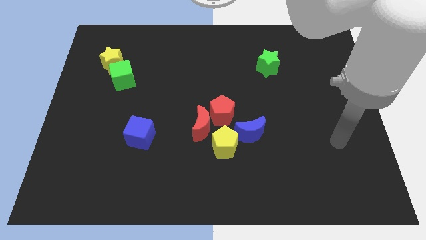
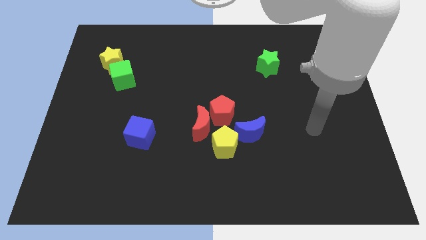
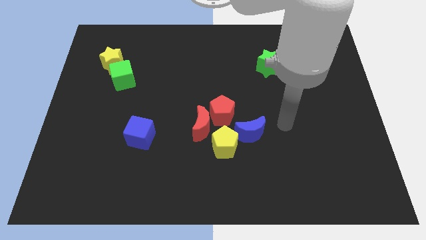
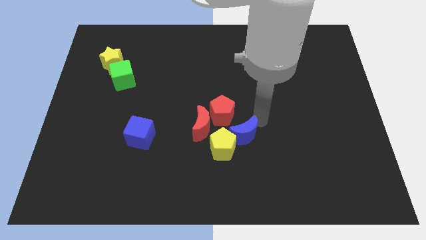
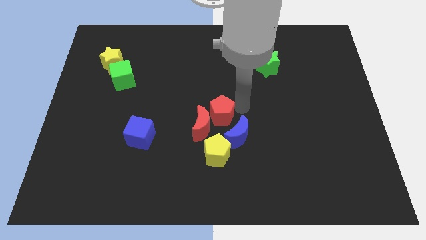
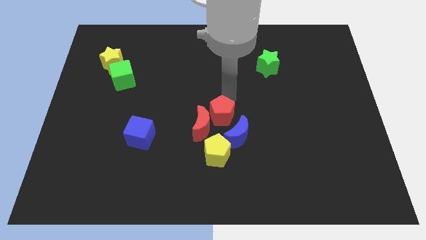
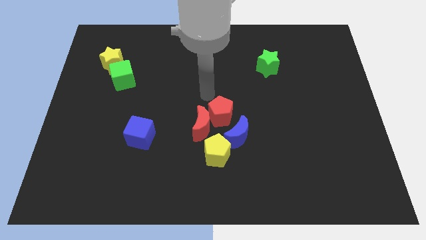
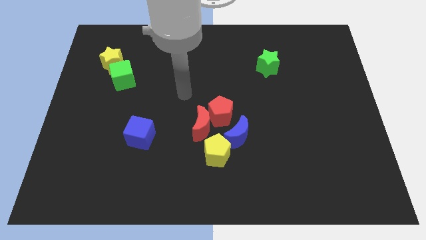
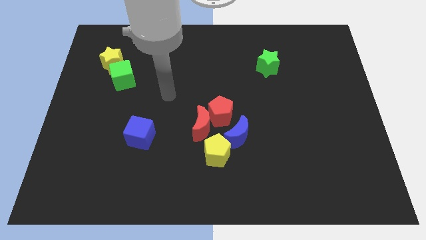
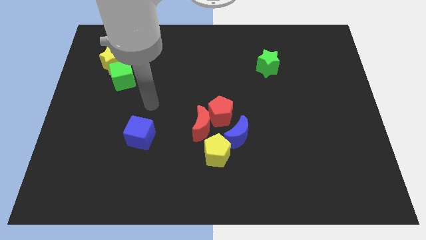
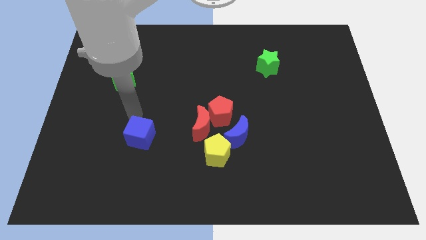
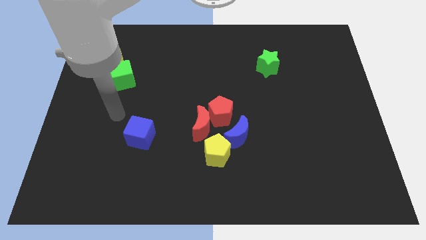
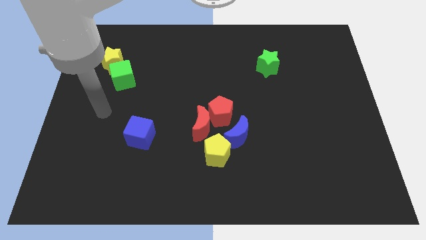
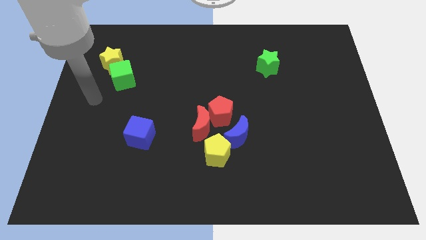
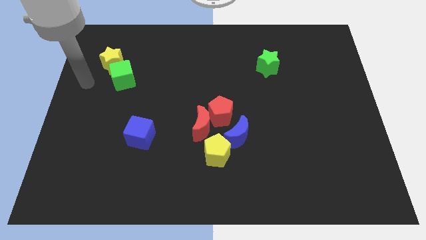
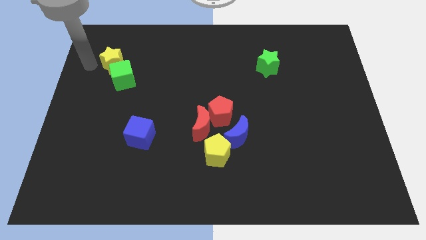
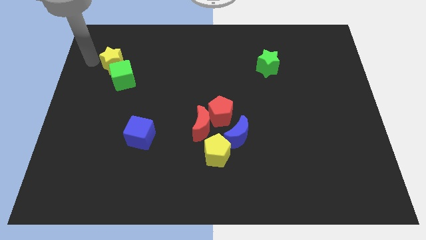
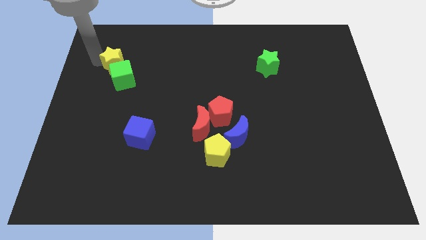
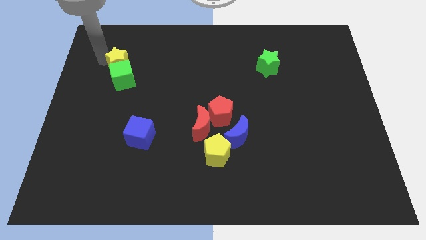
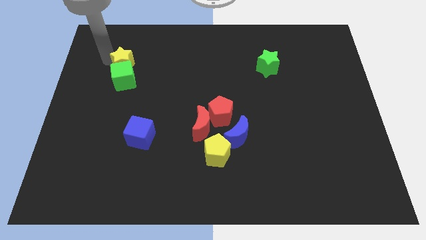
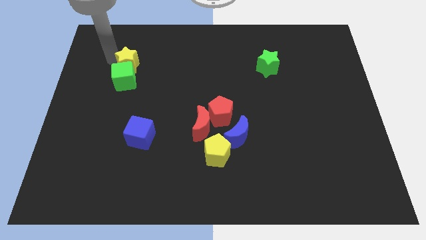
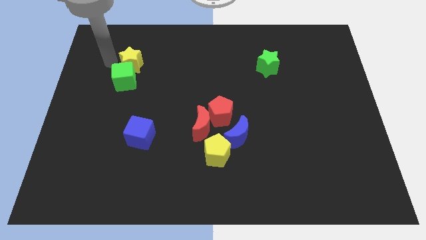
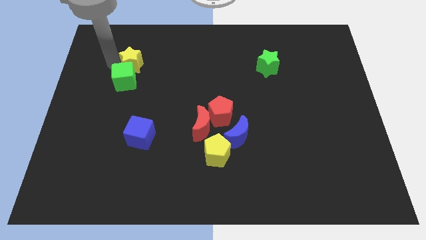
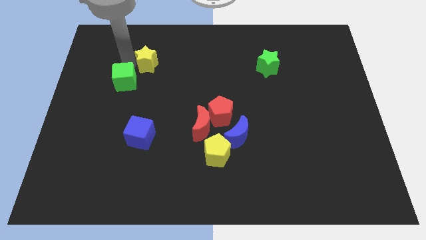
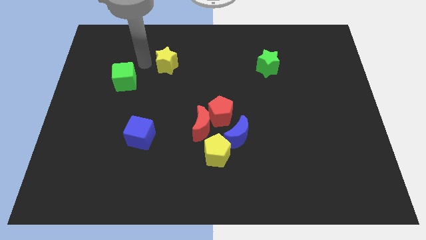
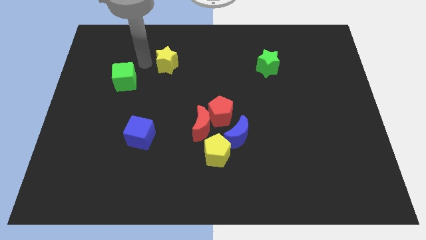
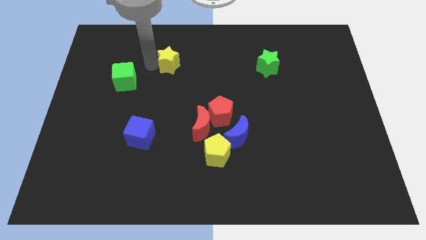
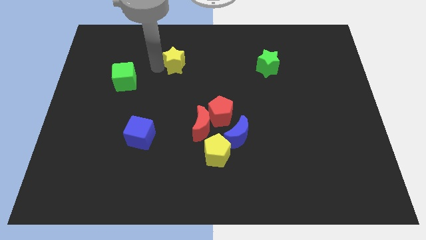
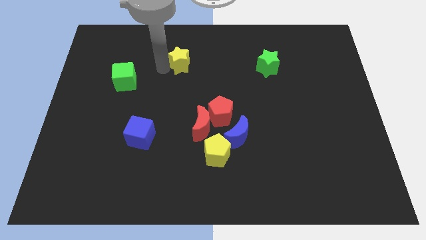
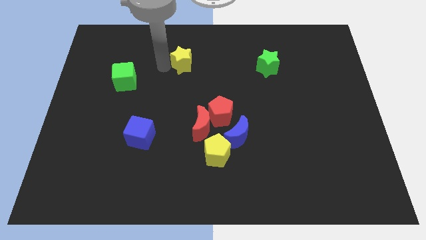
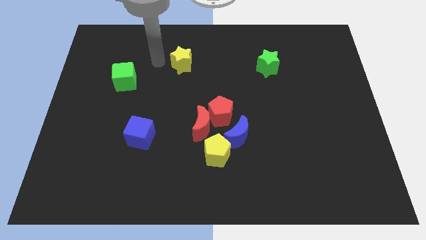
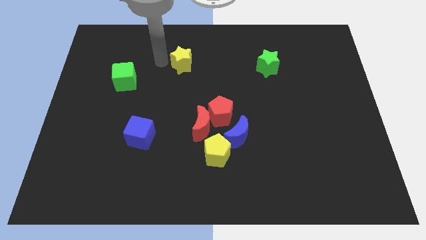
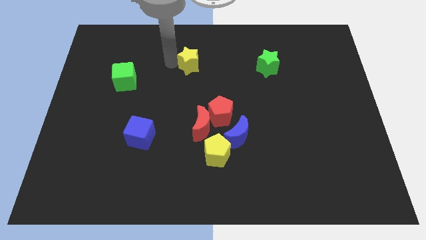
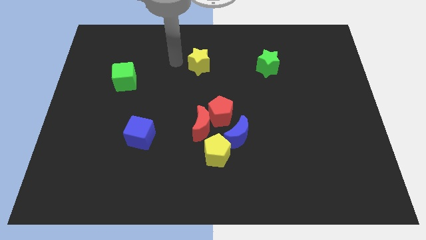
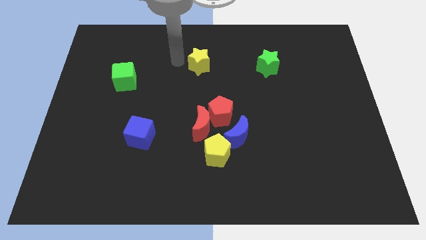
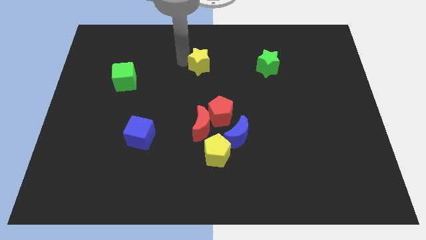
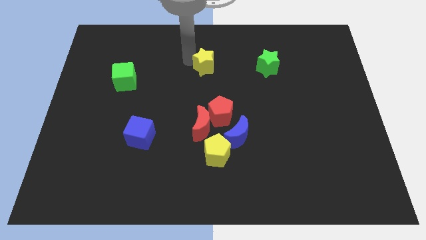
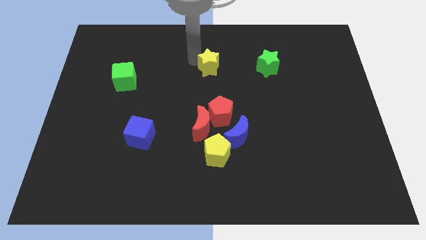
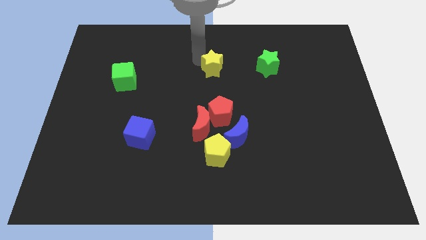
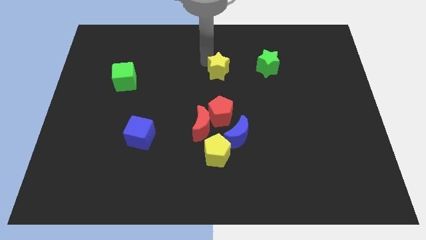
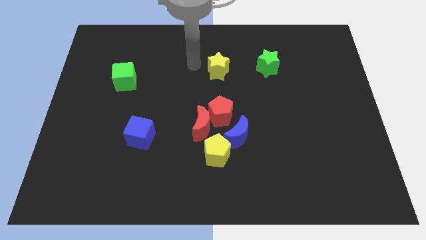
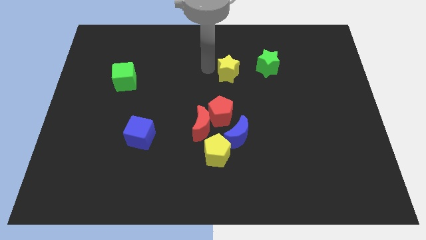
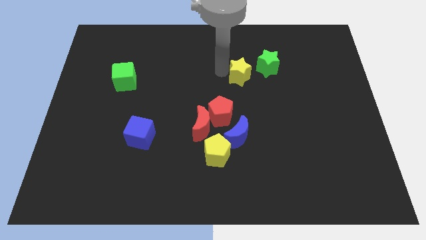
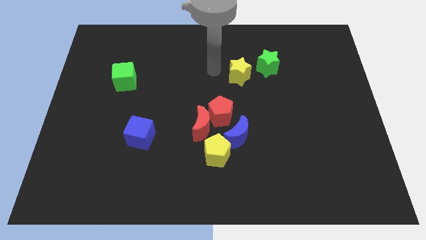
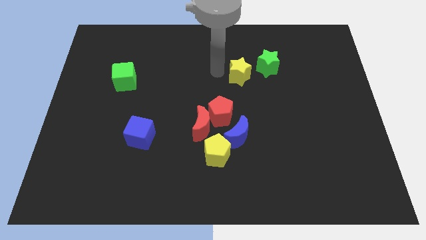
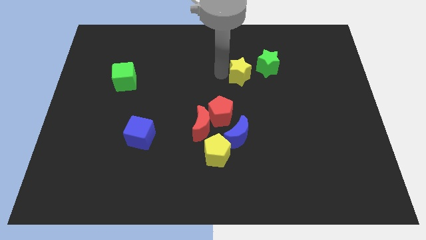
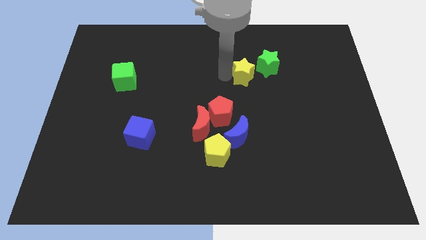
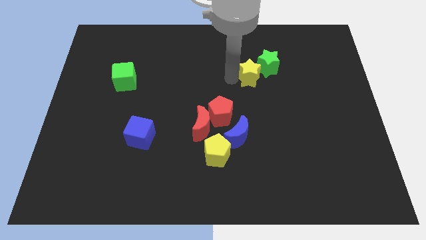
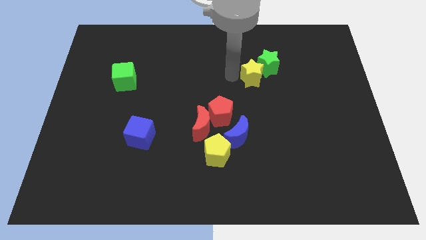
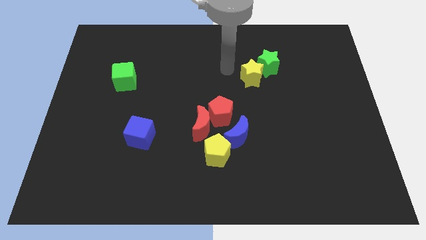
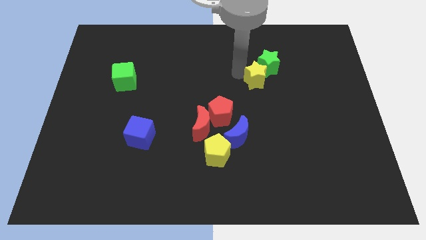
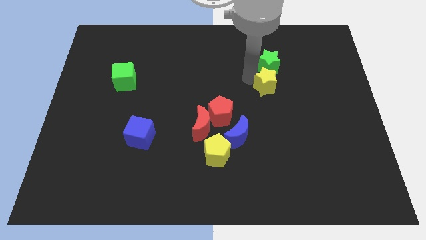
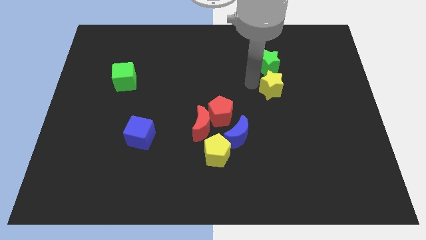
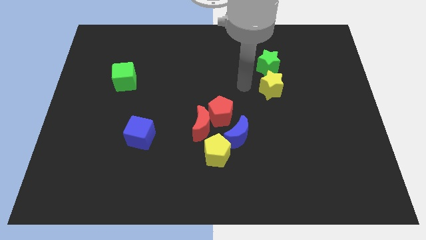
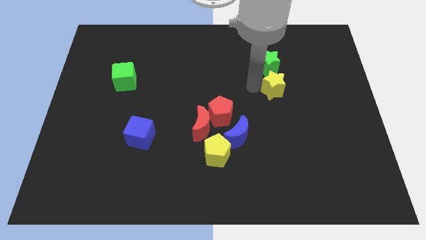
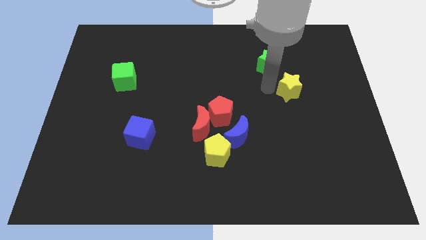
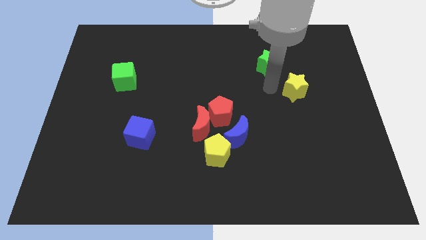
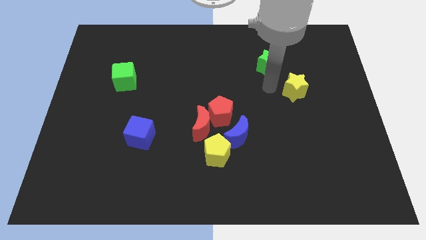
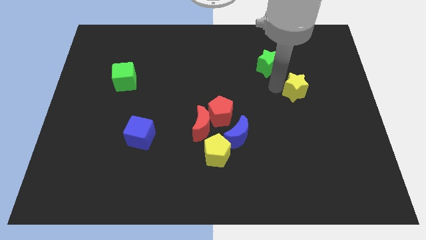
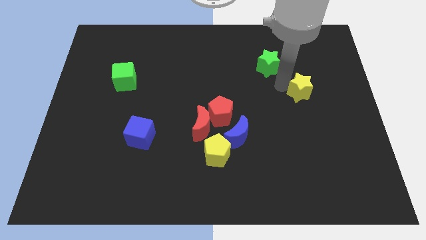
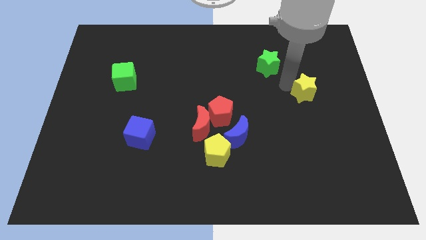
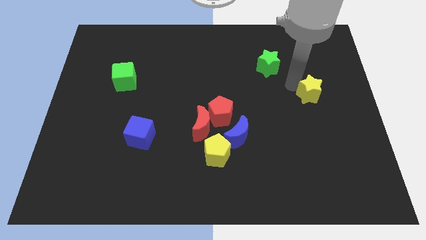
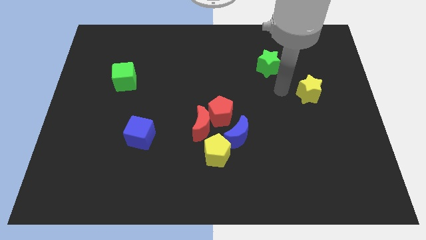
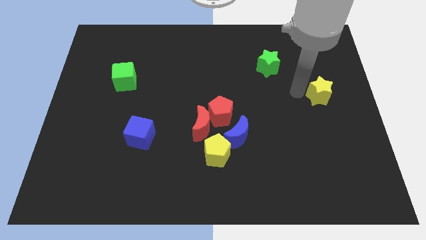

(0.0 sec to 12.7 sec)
slide the yellow star to the right side of the board
